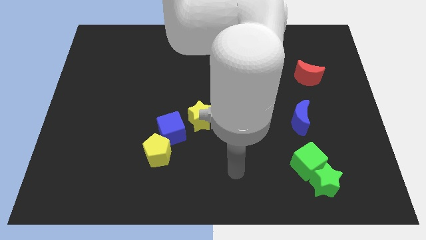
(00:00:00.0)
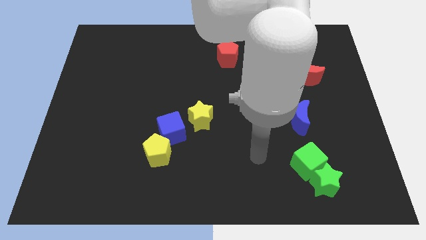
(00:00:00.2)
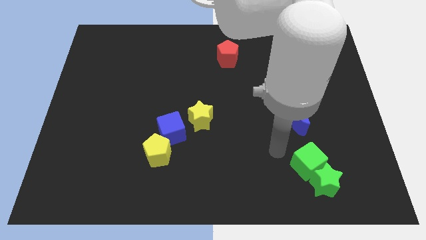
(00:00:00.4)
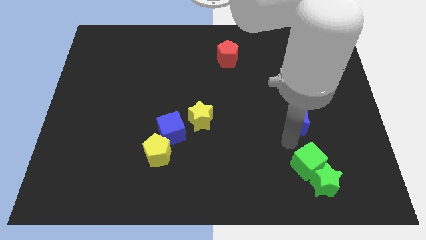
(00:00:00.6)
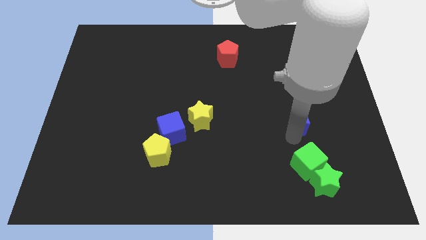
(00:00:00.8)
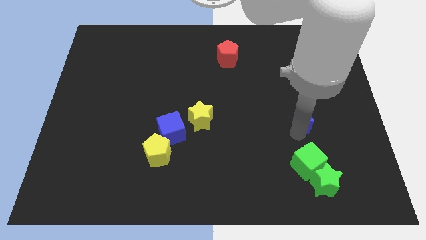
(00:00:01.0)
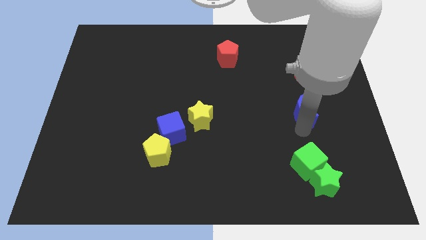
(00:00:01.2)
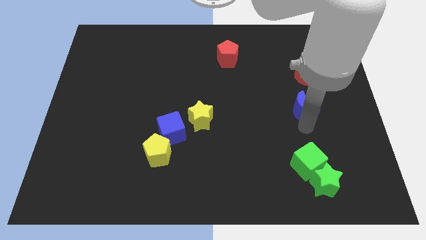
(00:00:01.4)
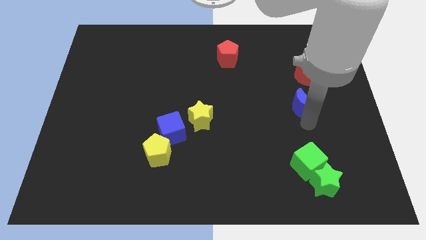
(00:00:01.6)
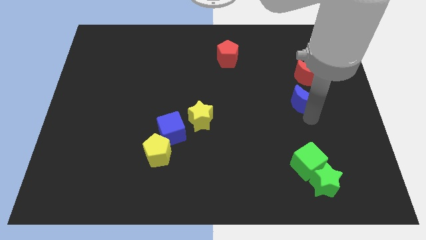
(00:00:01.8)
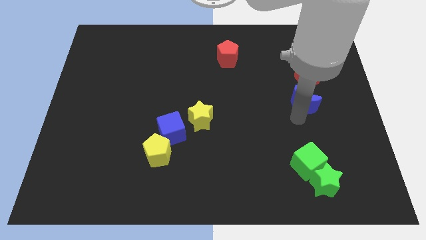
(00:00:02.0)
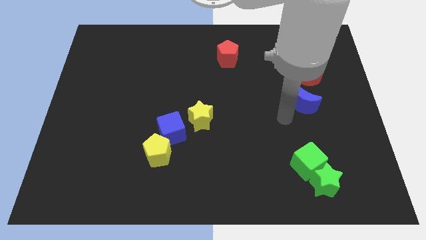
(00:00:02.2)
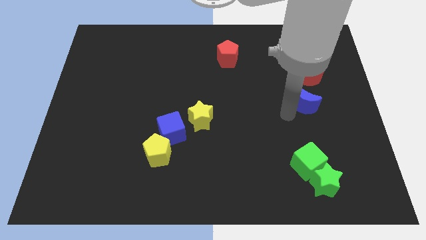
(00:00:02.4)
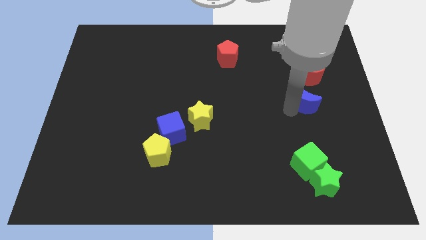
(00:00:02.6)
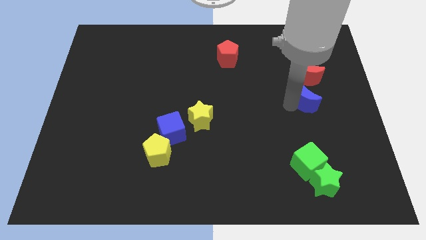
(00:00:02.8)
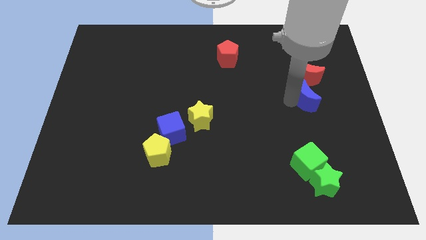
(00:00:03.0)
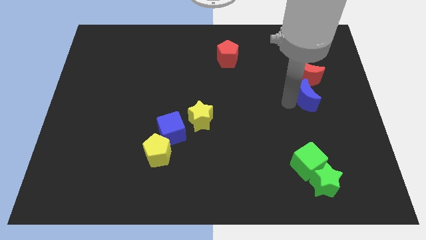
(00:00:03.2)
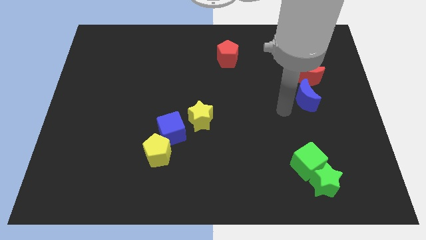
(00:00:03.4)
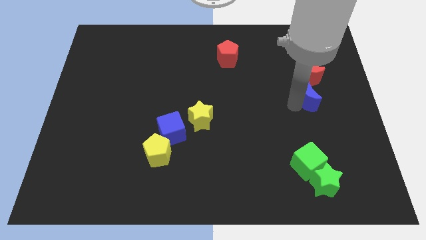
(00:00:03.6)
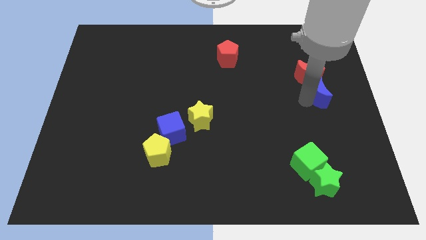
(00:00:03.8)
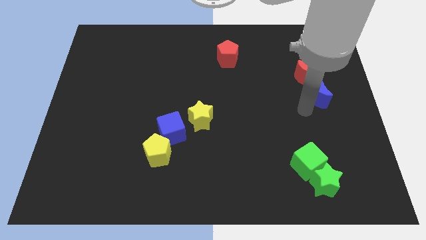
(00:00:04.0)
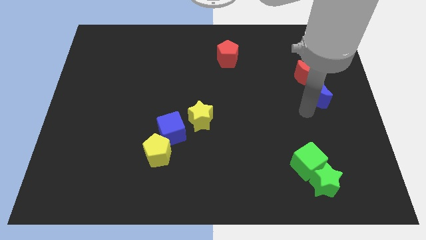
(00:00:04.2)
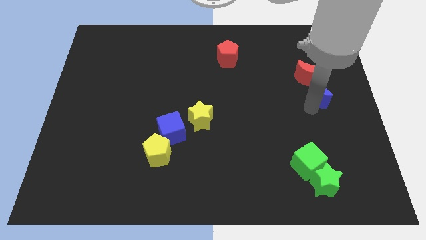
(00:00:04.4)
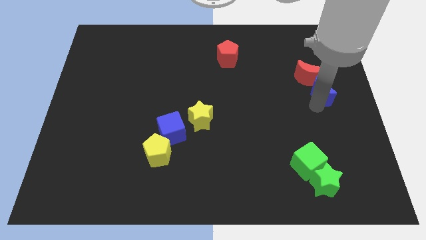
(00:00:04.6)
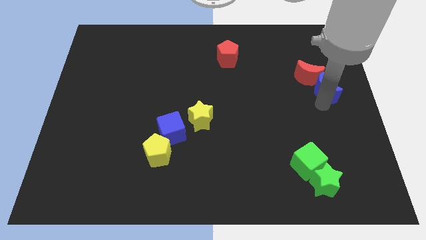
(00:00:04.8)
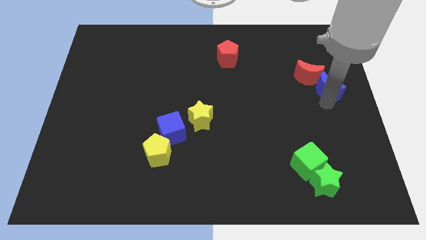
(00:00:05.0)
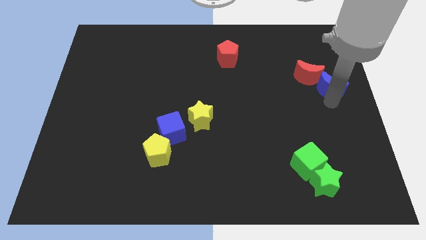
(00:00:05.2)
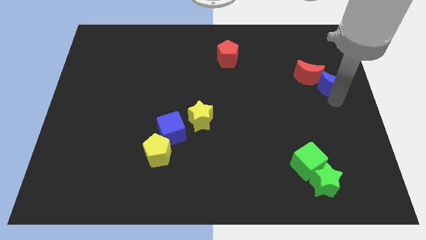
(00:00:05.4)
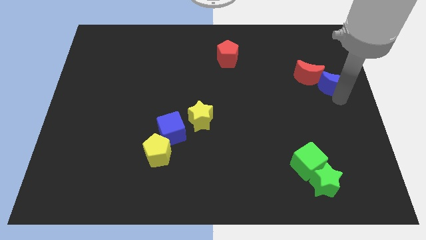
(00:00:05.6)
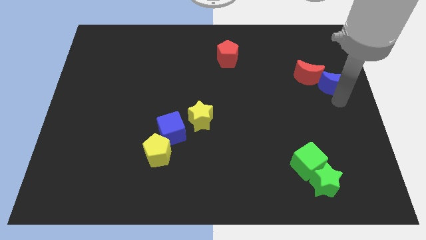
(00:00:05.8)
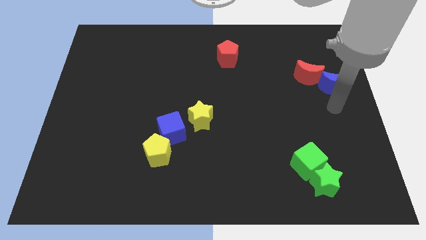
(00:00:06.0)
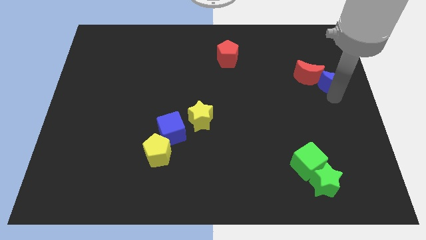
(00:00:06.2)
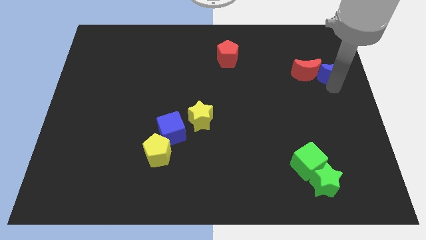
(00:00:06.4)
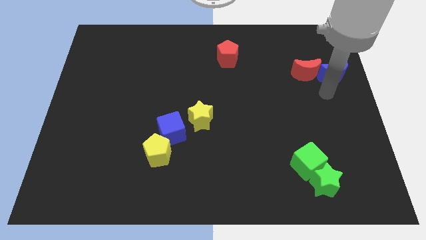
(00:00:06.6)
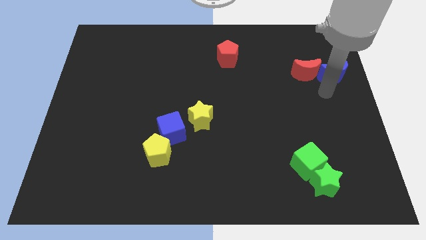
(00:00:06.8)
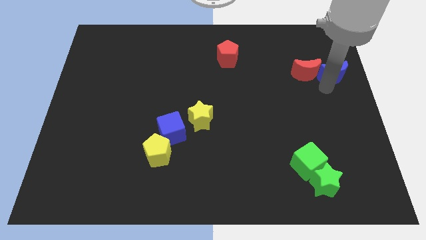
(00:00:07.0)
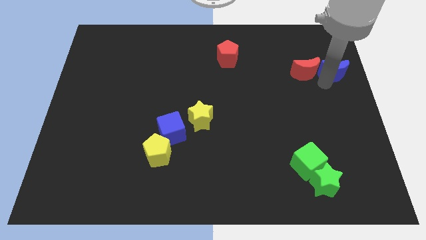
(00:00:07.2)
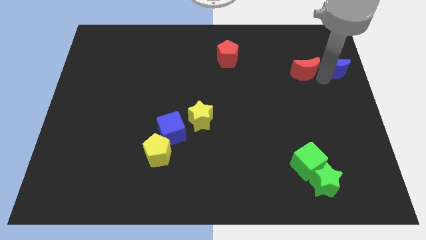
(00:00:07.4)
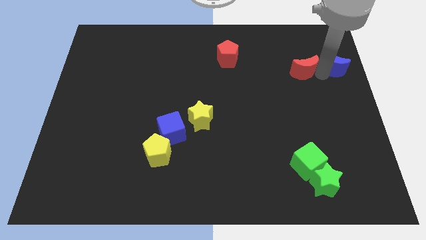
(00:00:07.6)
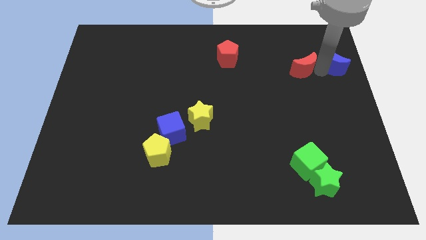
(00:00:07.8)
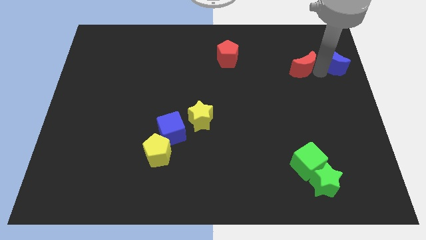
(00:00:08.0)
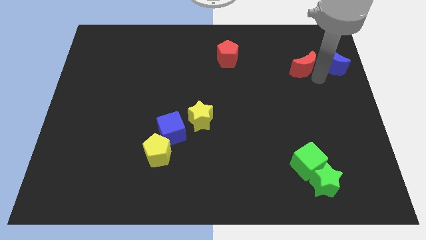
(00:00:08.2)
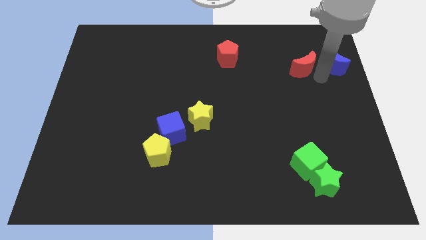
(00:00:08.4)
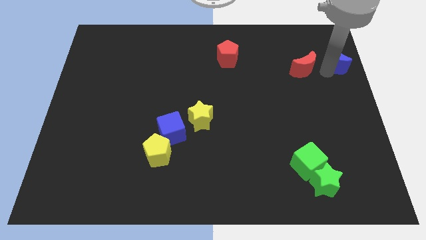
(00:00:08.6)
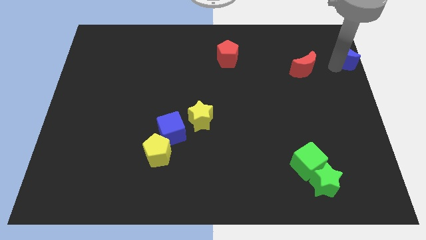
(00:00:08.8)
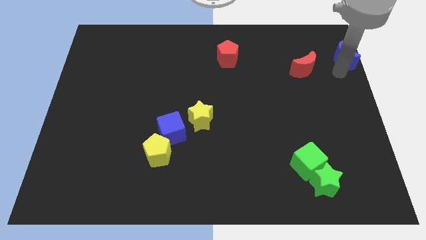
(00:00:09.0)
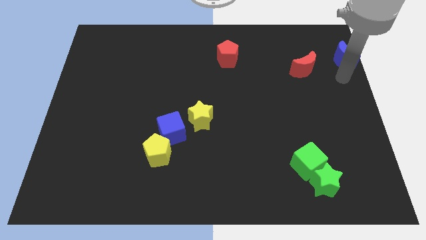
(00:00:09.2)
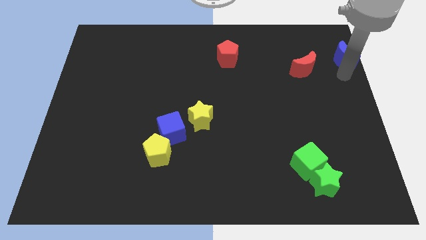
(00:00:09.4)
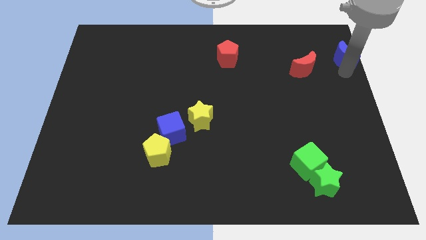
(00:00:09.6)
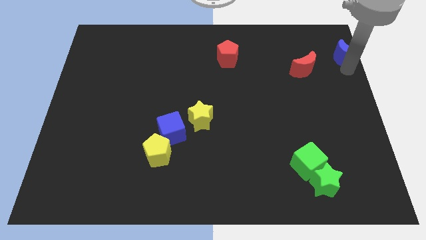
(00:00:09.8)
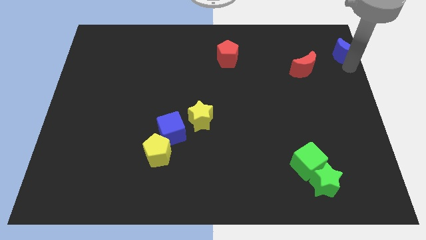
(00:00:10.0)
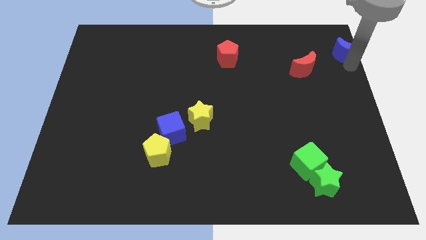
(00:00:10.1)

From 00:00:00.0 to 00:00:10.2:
push the blue moon to the top right corner

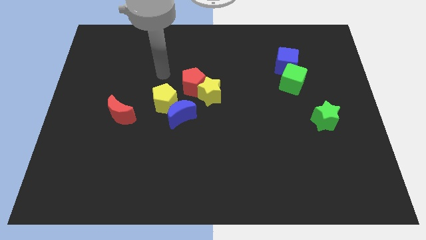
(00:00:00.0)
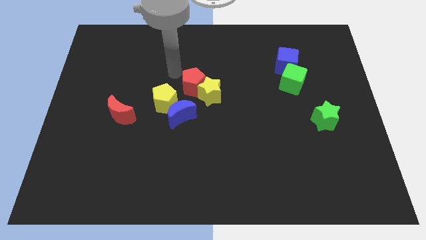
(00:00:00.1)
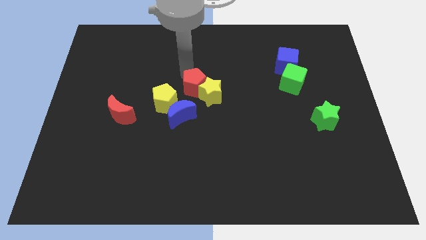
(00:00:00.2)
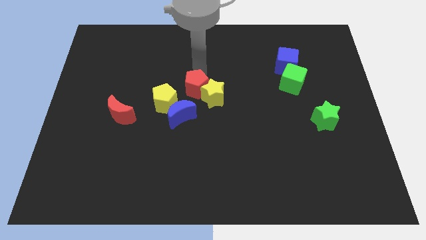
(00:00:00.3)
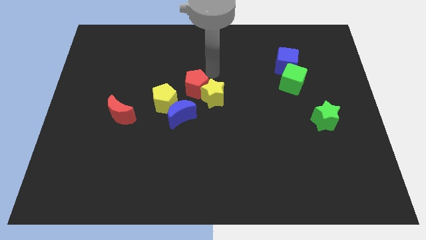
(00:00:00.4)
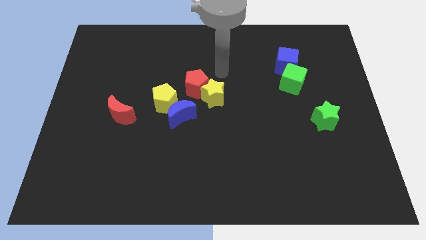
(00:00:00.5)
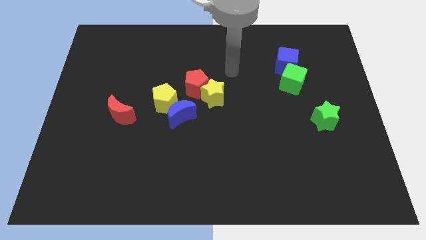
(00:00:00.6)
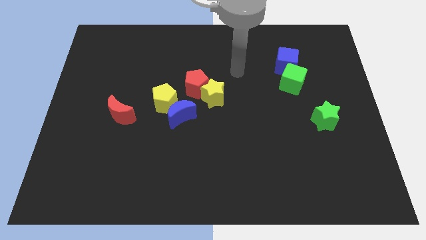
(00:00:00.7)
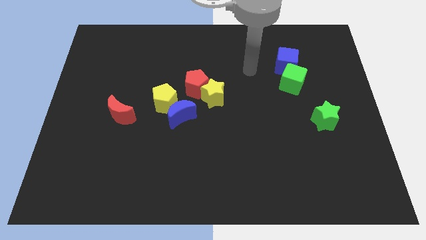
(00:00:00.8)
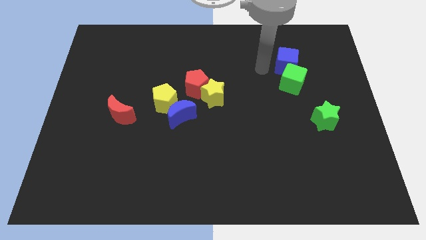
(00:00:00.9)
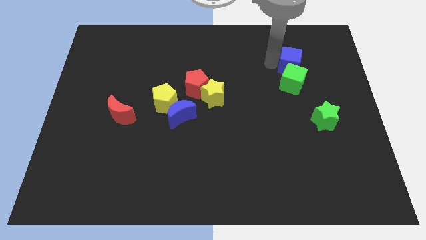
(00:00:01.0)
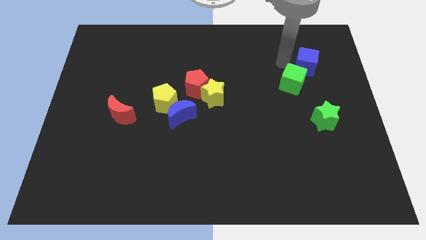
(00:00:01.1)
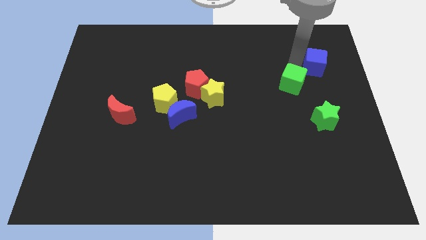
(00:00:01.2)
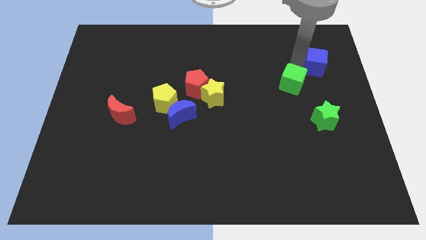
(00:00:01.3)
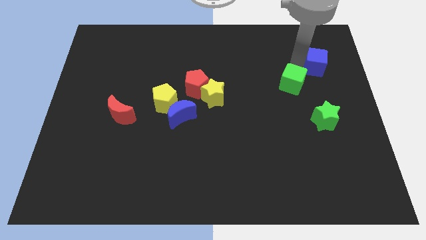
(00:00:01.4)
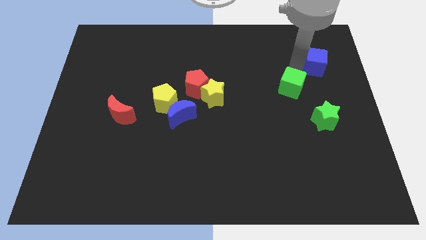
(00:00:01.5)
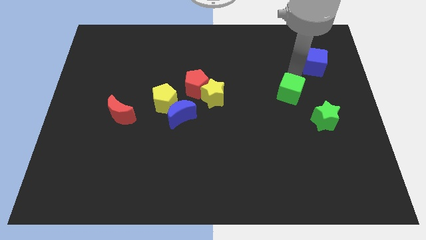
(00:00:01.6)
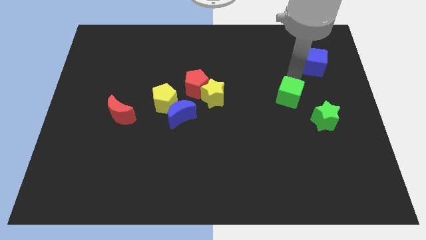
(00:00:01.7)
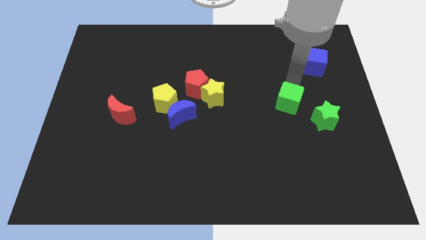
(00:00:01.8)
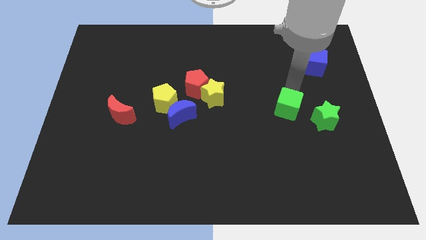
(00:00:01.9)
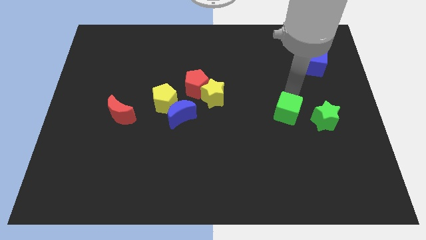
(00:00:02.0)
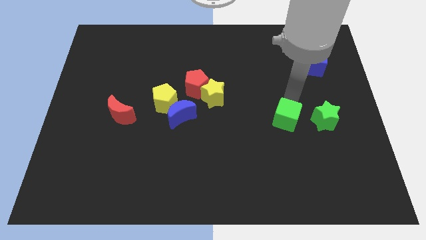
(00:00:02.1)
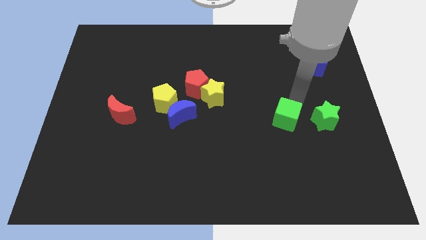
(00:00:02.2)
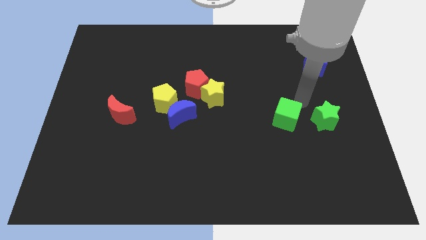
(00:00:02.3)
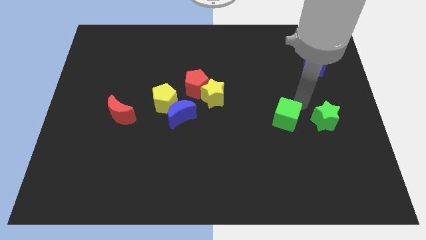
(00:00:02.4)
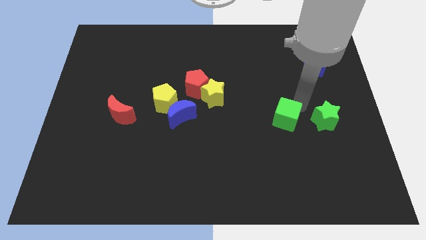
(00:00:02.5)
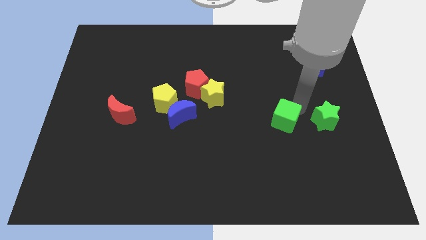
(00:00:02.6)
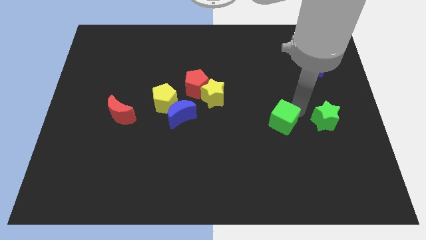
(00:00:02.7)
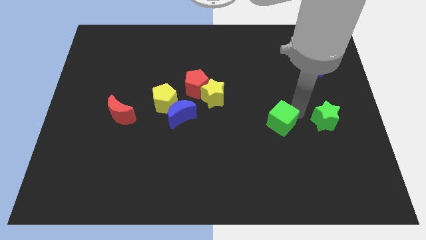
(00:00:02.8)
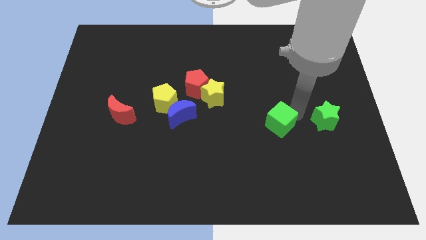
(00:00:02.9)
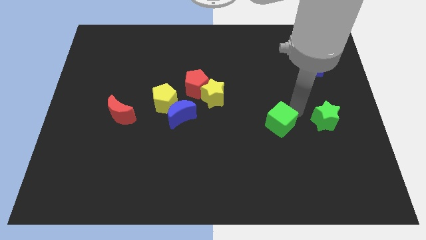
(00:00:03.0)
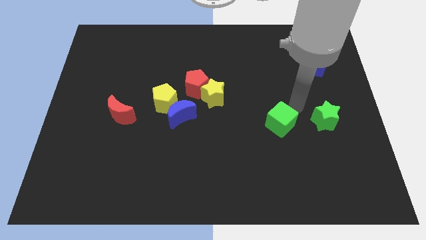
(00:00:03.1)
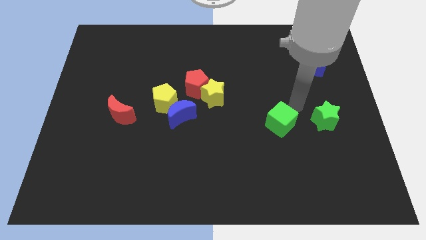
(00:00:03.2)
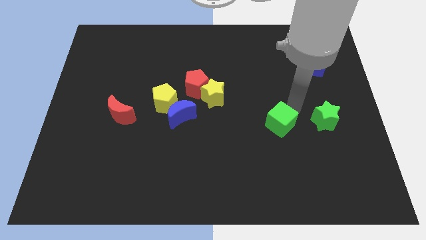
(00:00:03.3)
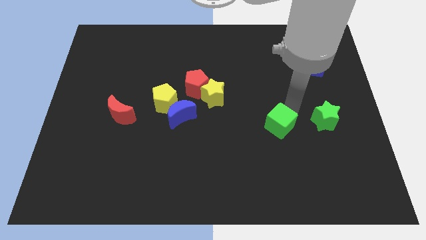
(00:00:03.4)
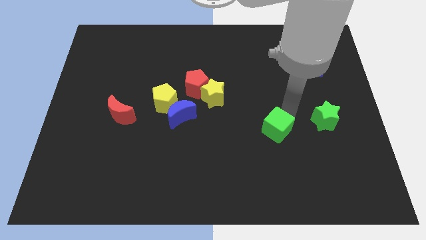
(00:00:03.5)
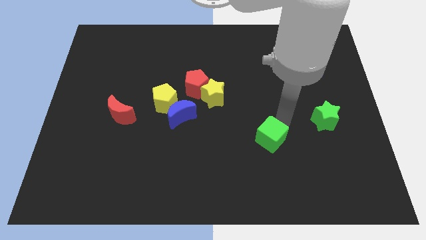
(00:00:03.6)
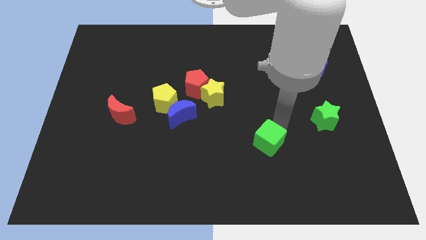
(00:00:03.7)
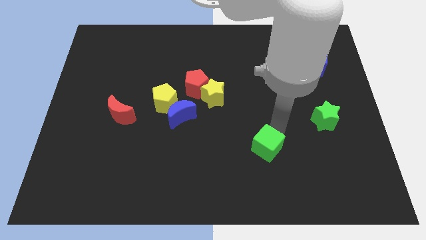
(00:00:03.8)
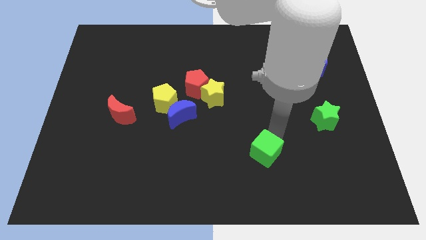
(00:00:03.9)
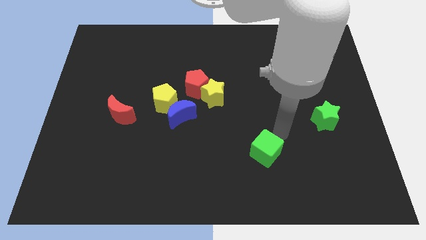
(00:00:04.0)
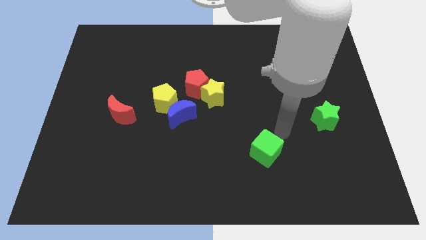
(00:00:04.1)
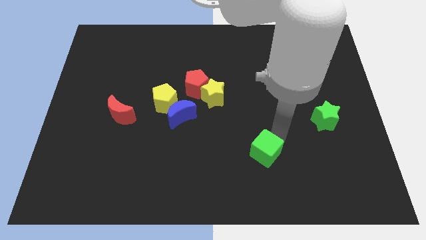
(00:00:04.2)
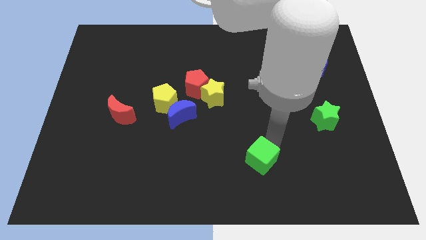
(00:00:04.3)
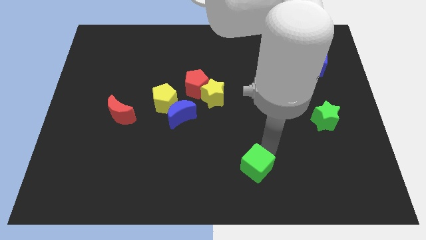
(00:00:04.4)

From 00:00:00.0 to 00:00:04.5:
push the green cube to the bottom
